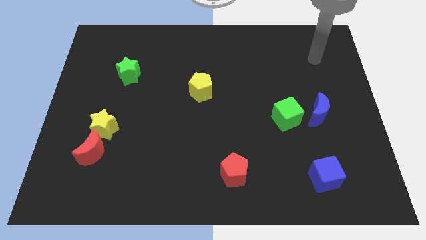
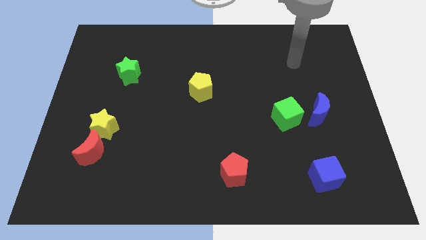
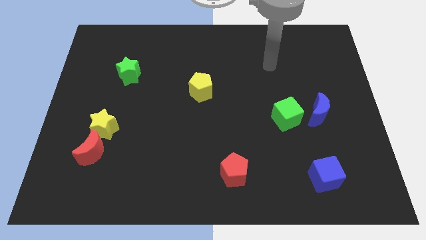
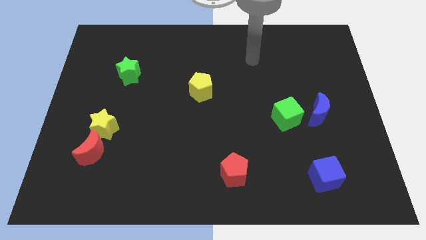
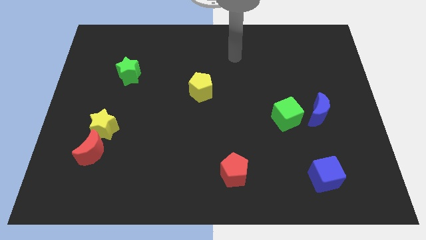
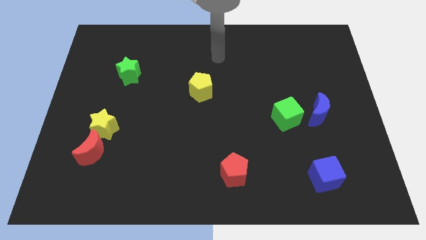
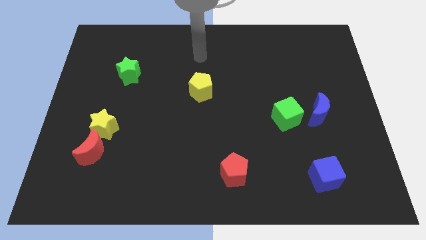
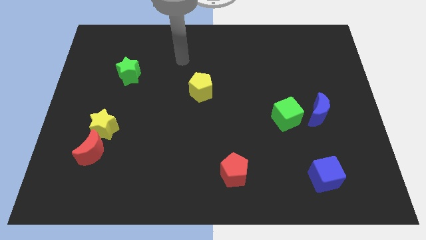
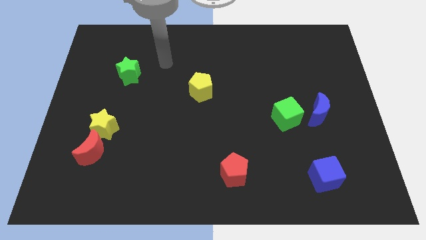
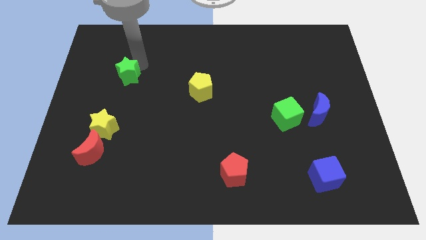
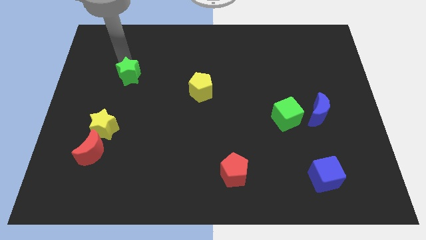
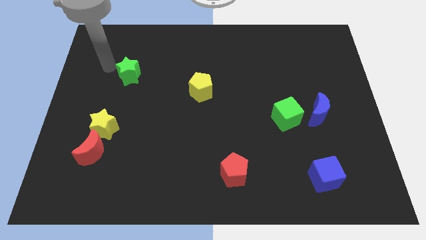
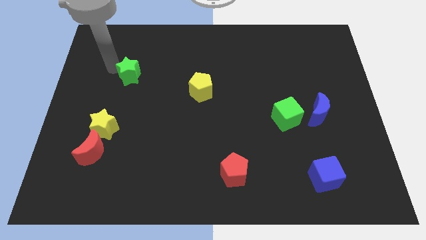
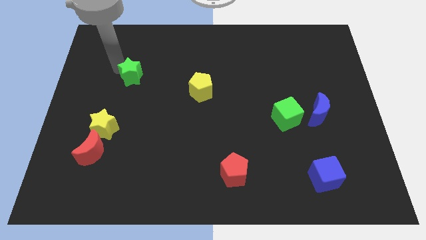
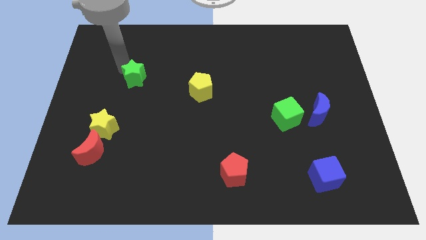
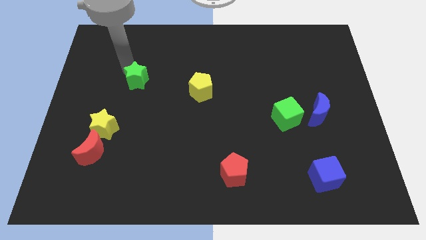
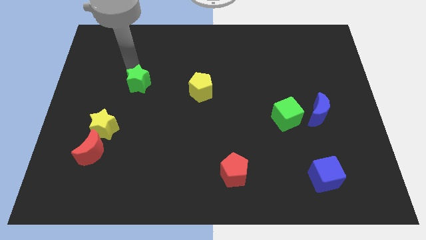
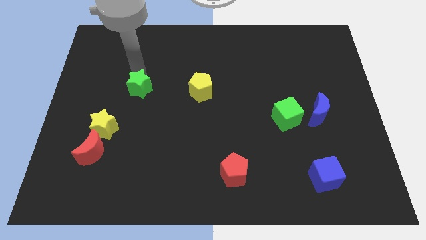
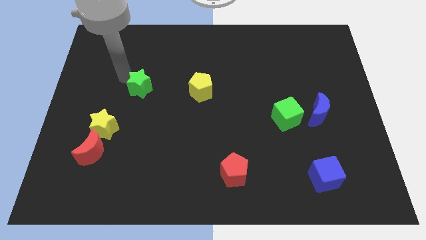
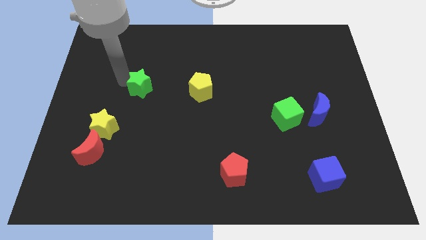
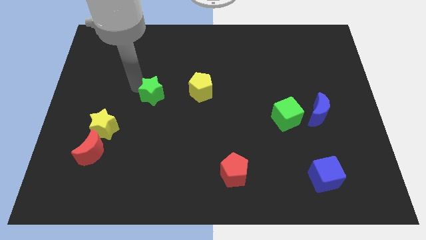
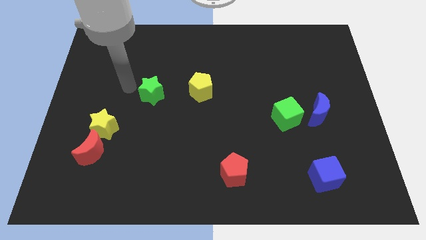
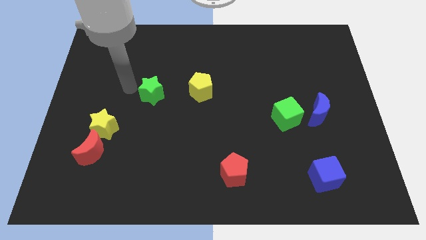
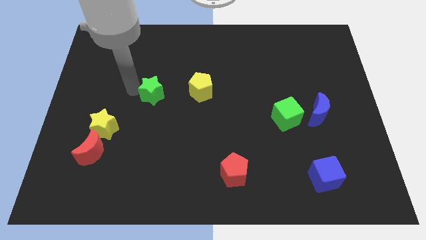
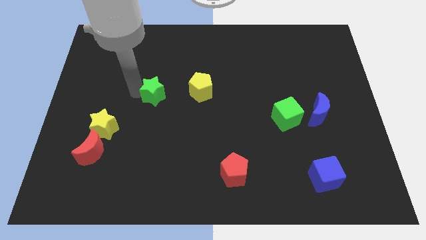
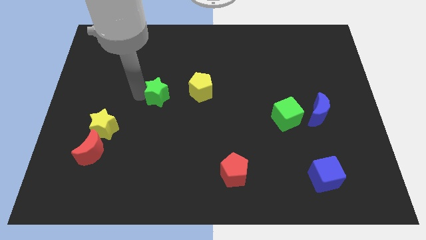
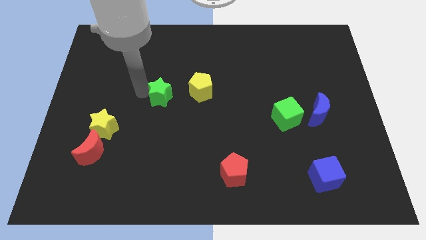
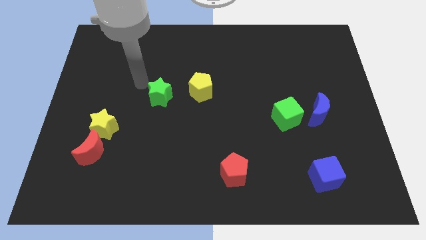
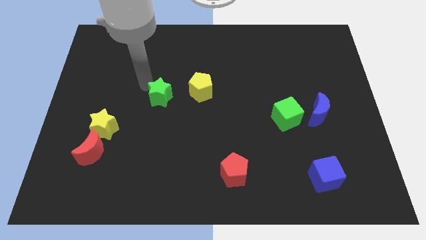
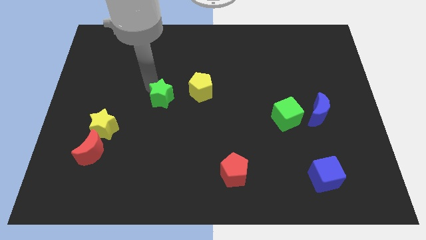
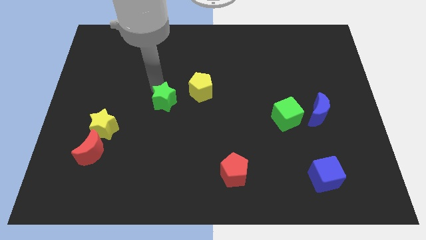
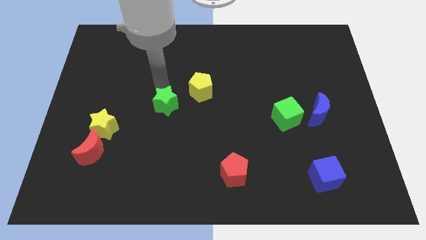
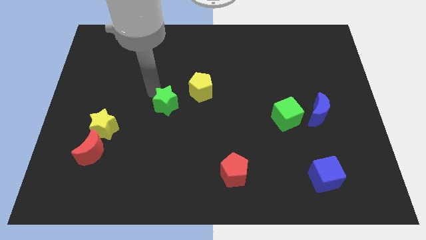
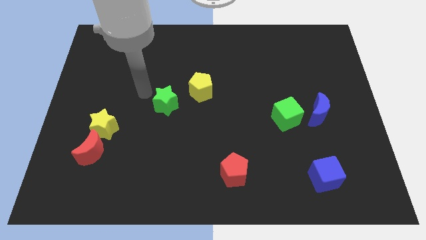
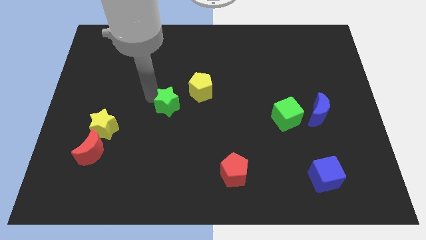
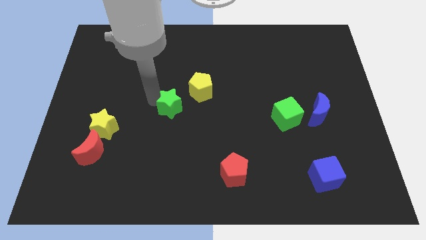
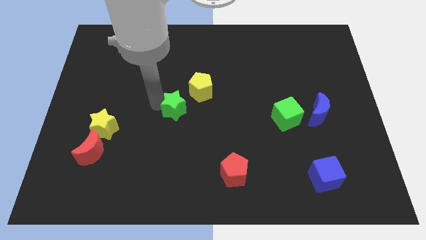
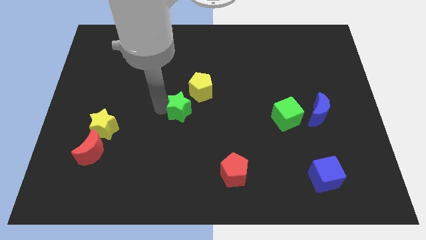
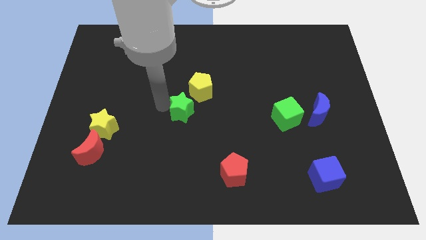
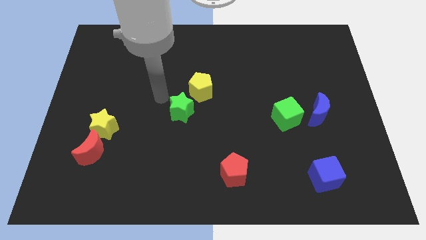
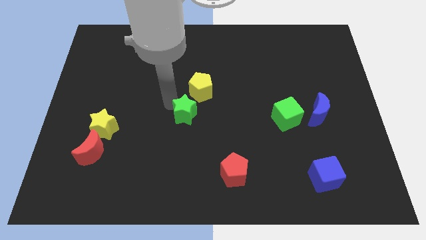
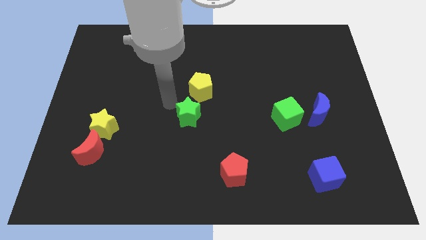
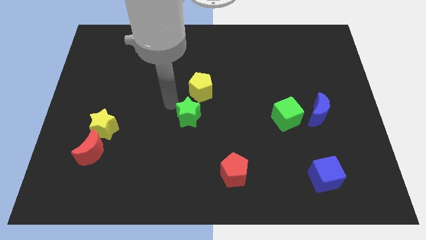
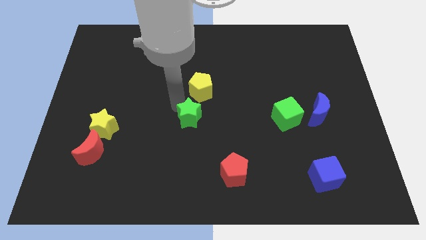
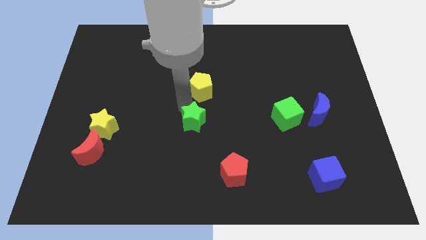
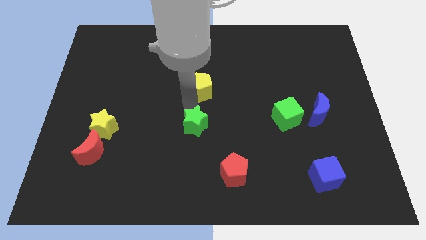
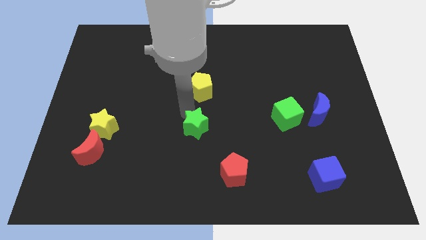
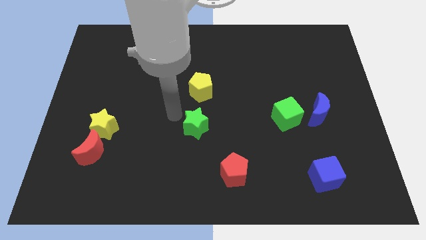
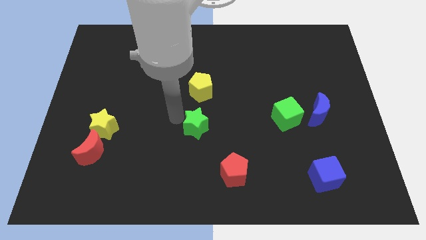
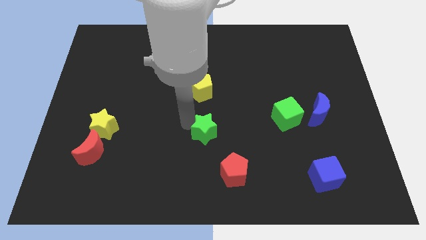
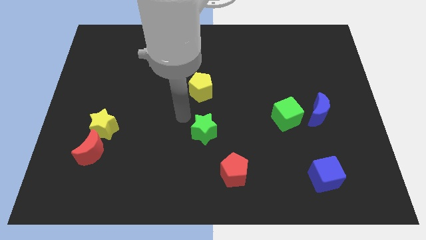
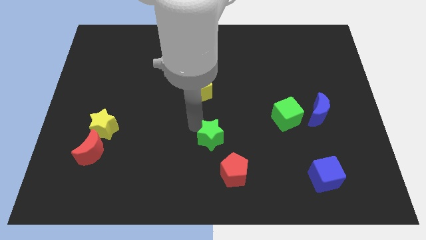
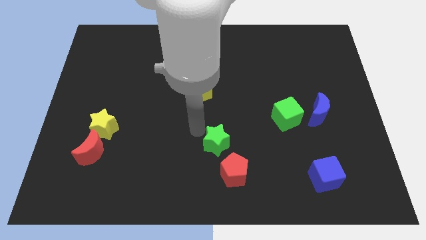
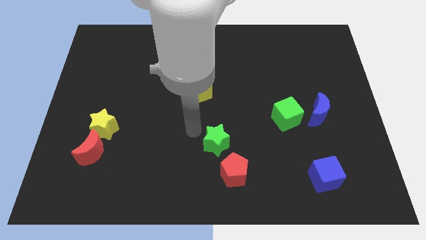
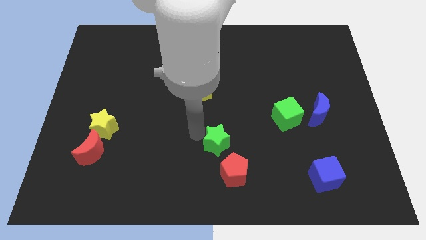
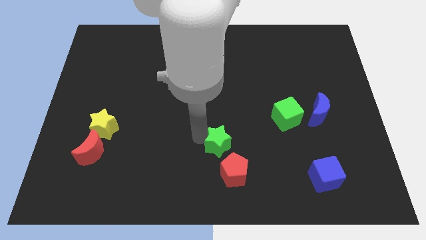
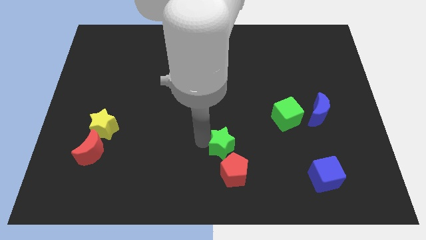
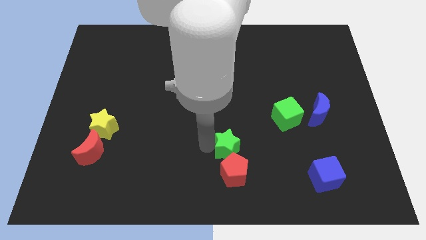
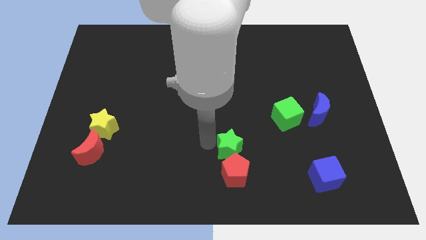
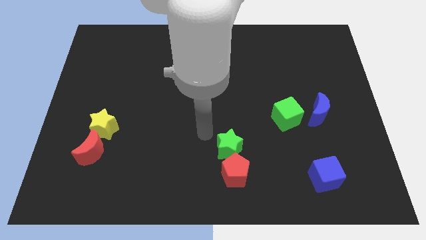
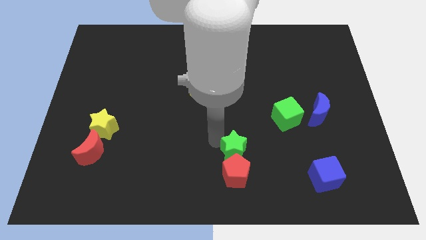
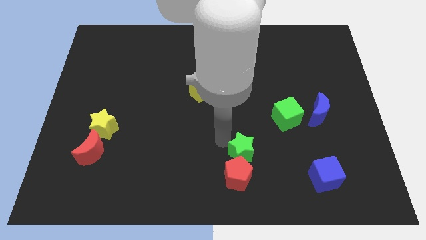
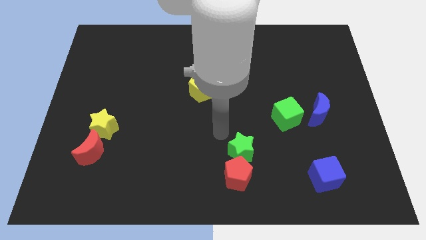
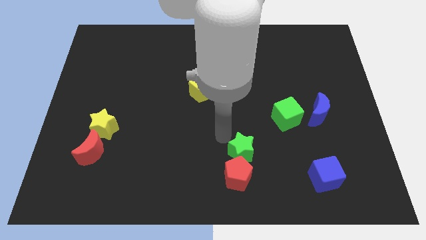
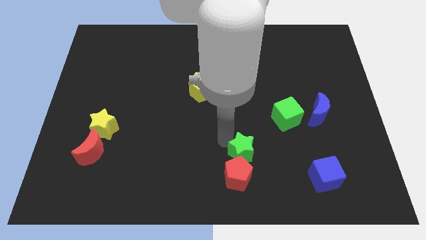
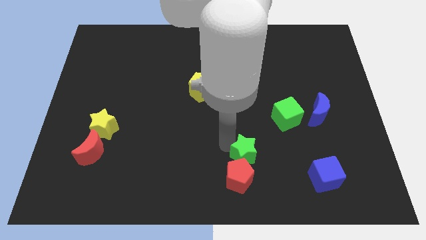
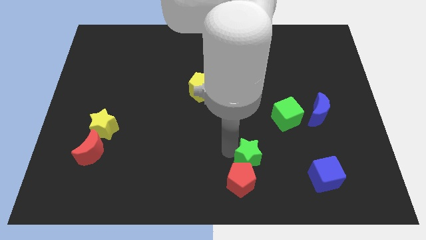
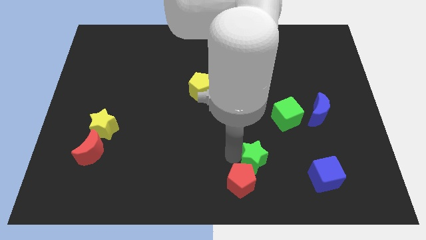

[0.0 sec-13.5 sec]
push the green star left of the blue cube
